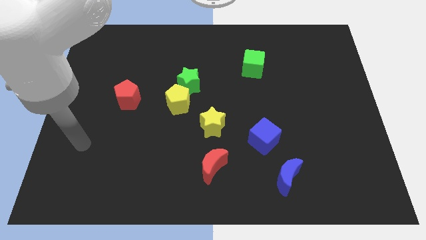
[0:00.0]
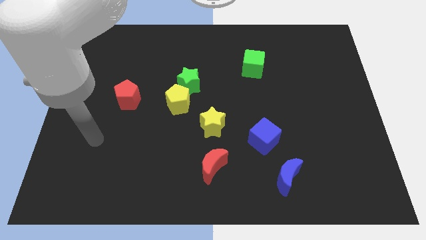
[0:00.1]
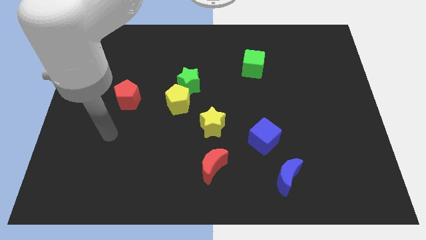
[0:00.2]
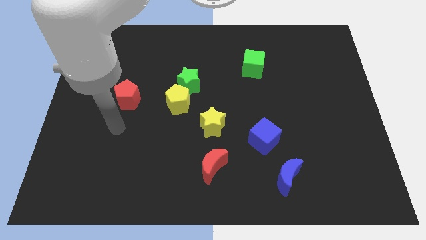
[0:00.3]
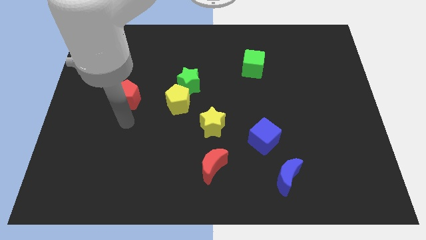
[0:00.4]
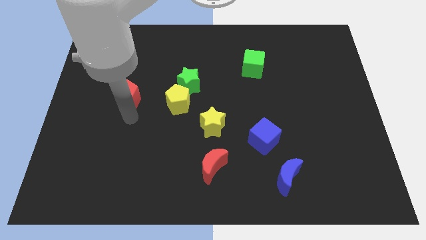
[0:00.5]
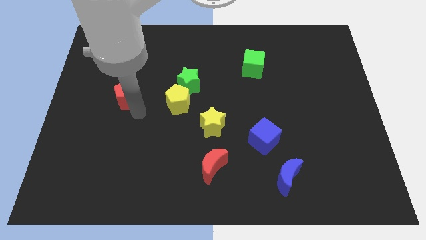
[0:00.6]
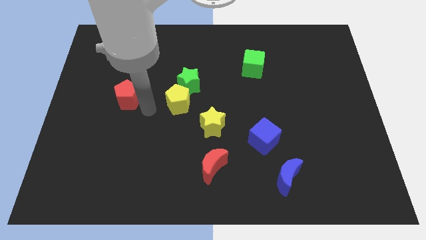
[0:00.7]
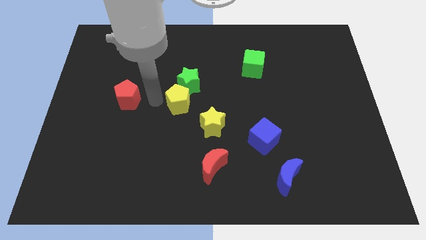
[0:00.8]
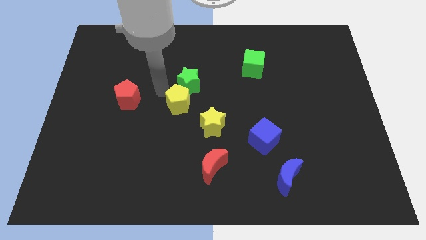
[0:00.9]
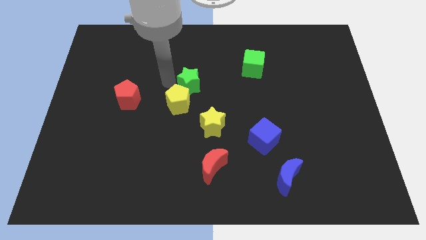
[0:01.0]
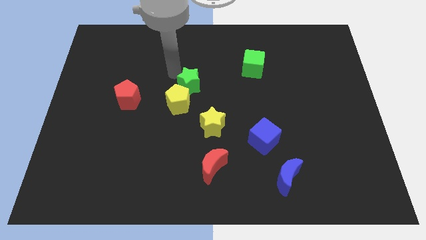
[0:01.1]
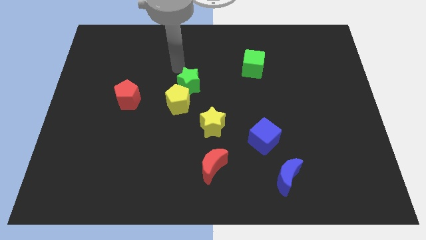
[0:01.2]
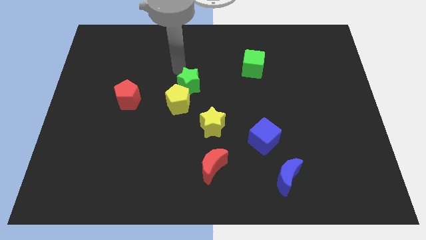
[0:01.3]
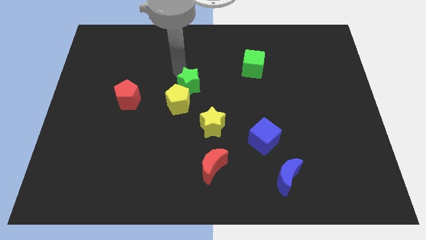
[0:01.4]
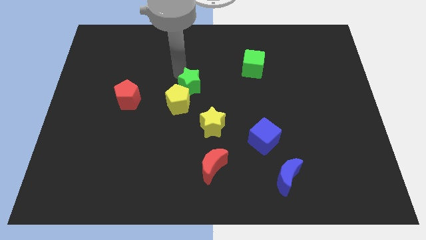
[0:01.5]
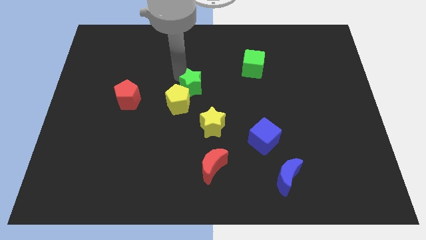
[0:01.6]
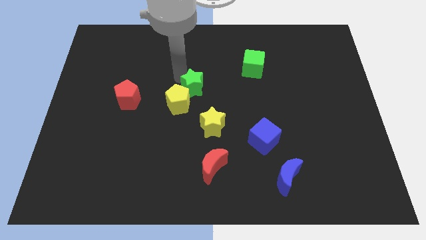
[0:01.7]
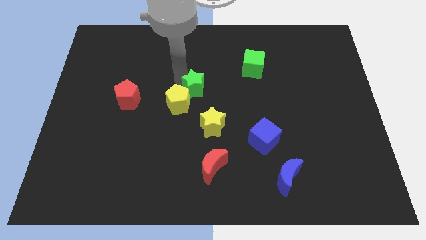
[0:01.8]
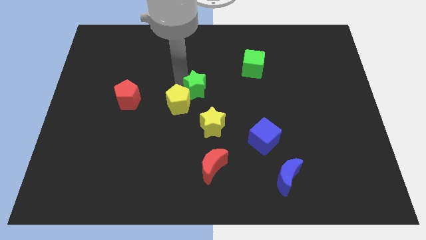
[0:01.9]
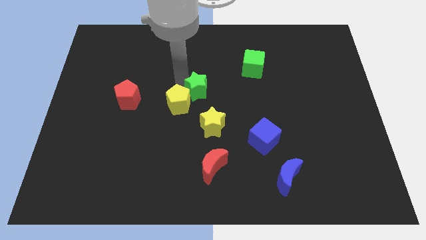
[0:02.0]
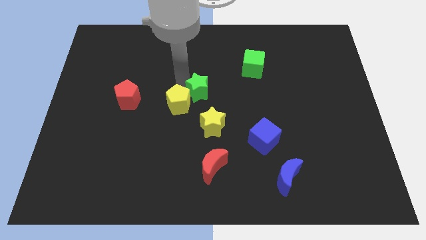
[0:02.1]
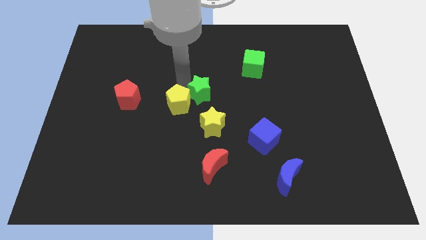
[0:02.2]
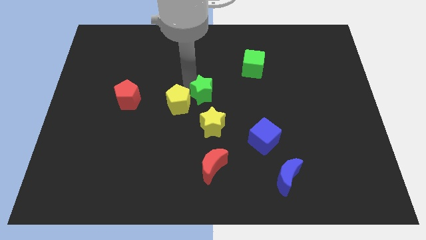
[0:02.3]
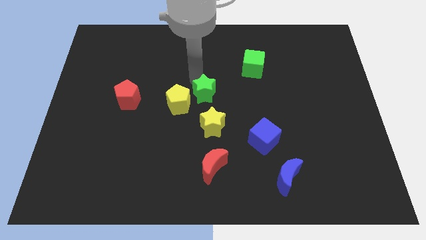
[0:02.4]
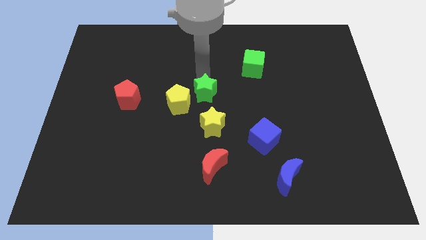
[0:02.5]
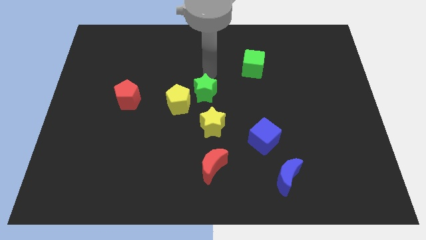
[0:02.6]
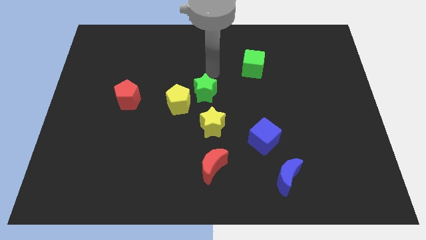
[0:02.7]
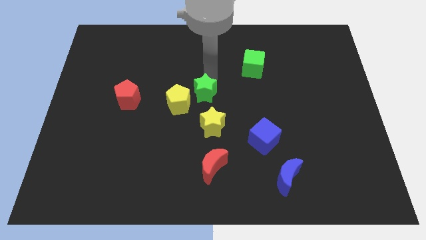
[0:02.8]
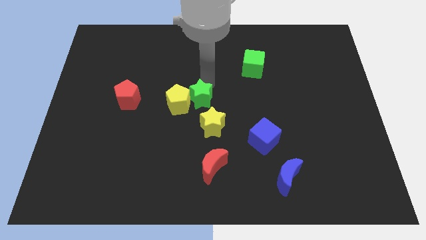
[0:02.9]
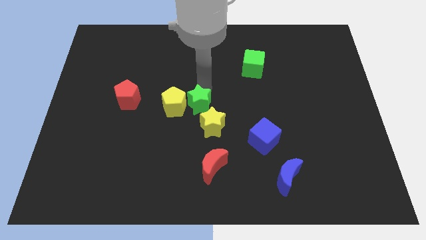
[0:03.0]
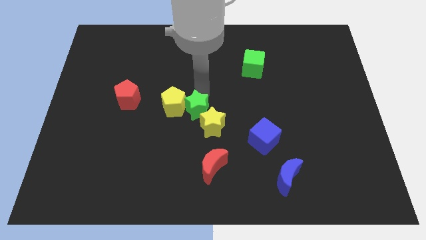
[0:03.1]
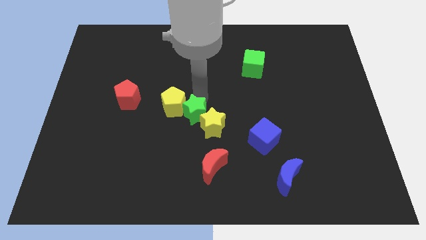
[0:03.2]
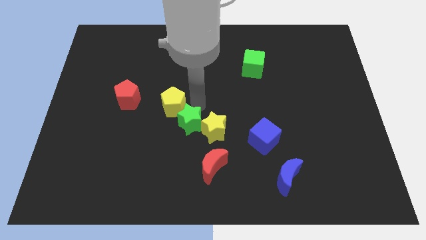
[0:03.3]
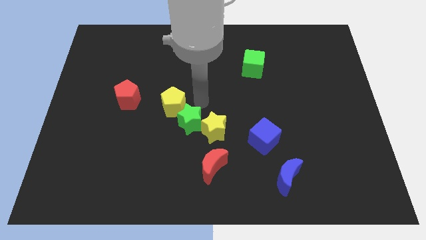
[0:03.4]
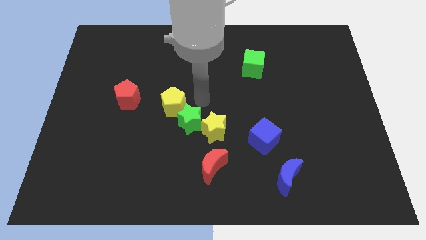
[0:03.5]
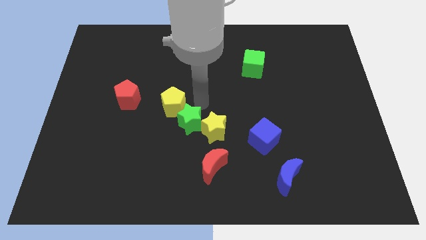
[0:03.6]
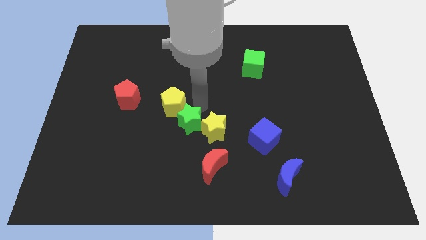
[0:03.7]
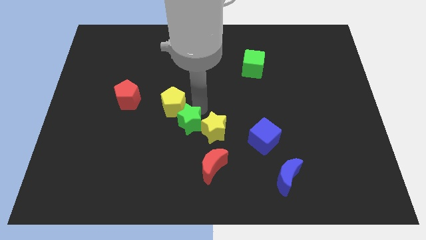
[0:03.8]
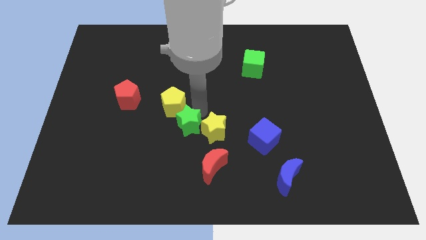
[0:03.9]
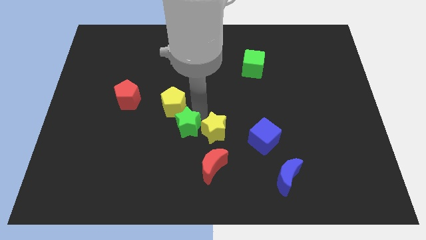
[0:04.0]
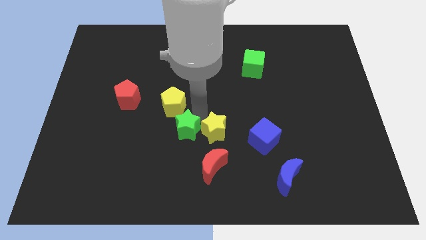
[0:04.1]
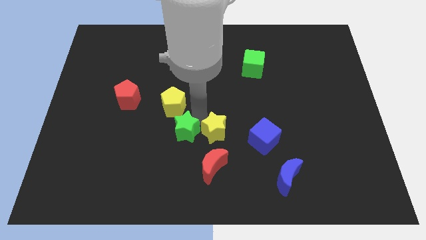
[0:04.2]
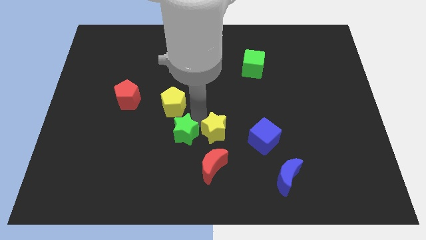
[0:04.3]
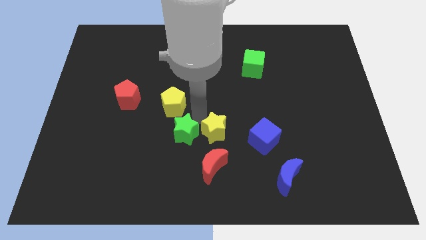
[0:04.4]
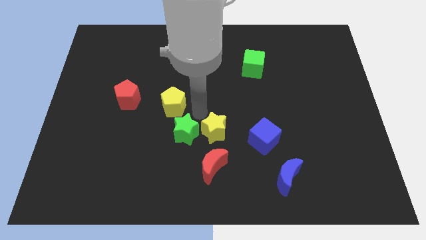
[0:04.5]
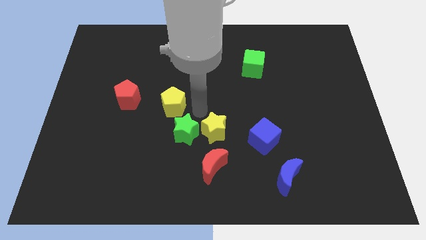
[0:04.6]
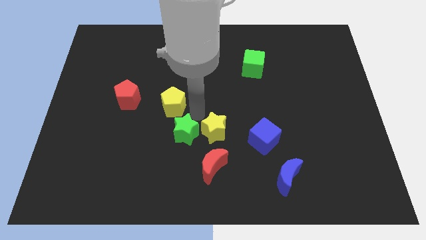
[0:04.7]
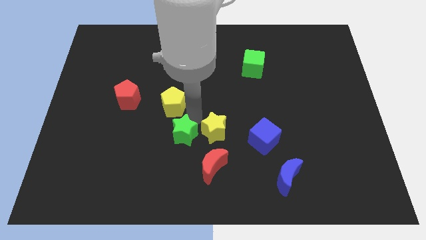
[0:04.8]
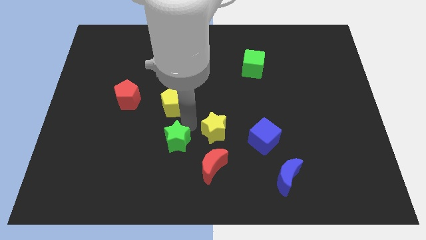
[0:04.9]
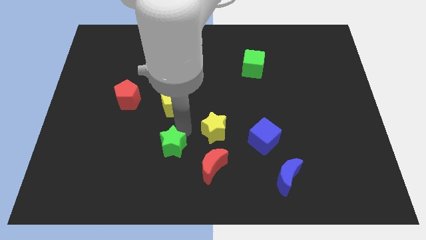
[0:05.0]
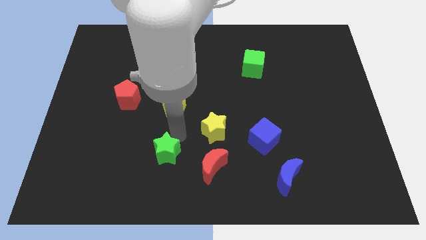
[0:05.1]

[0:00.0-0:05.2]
push the green star to the left side of the red moon

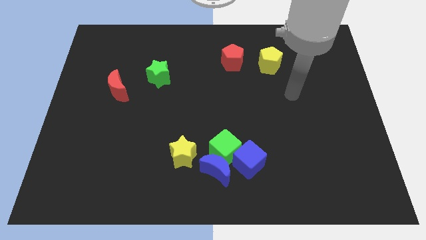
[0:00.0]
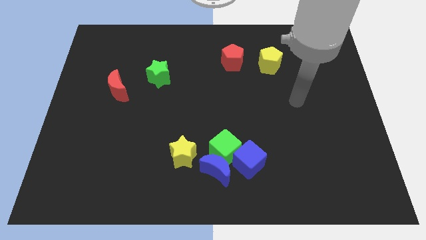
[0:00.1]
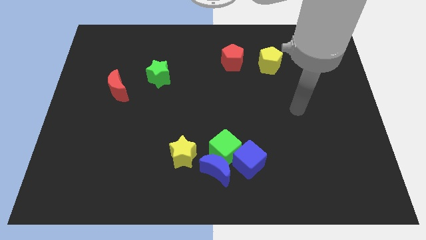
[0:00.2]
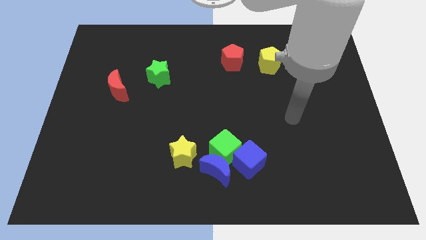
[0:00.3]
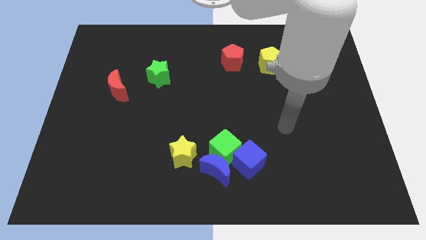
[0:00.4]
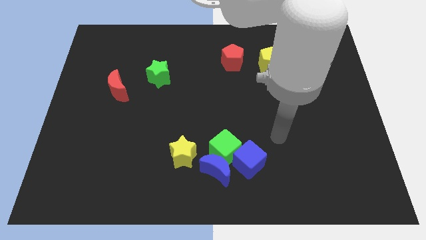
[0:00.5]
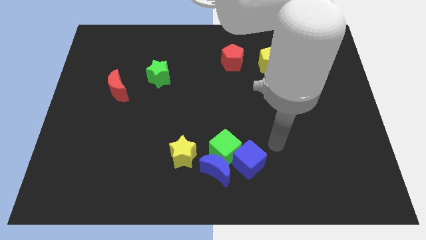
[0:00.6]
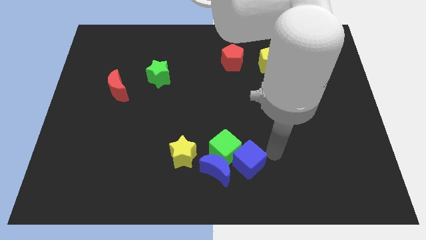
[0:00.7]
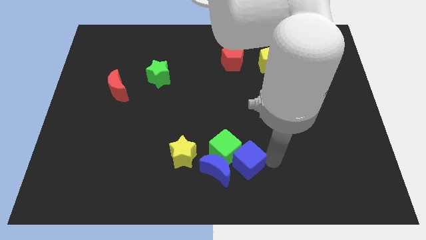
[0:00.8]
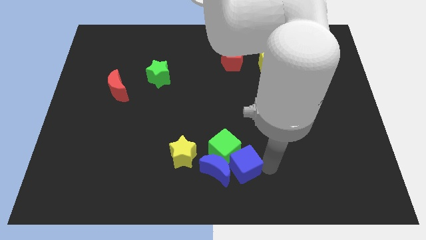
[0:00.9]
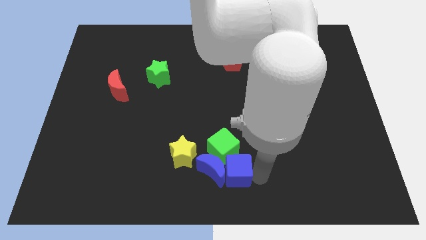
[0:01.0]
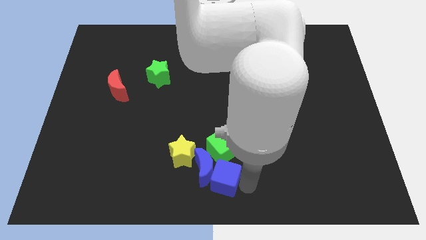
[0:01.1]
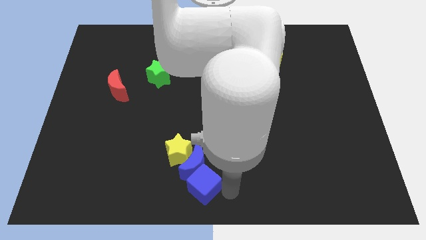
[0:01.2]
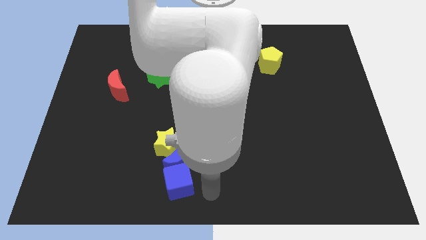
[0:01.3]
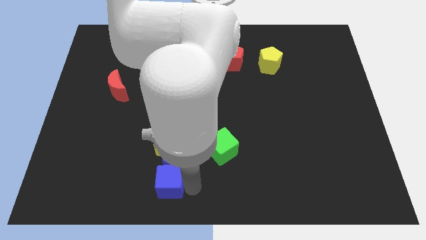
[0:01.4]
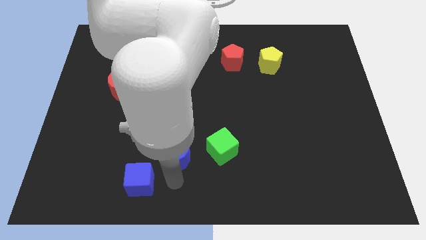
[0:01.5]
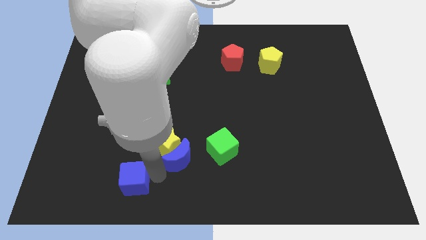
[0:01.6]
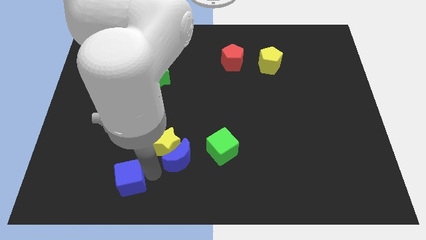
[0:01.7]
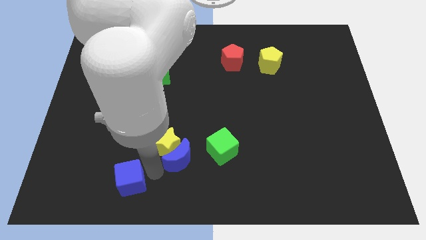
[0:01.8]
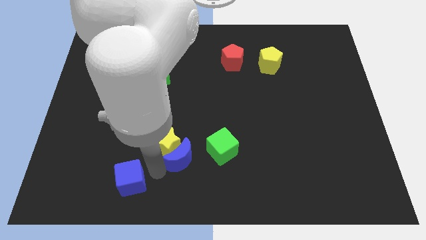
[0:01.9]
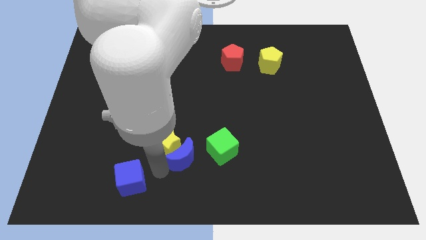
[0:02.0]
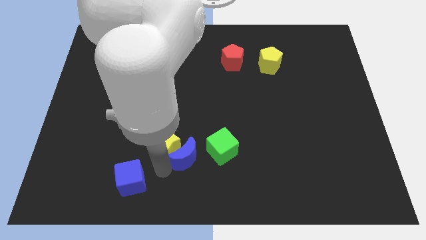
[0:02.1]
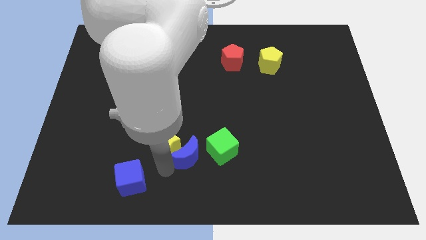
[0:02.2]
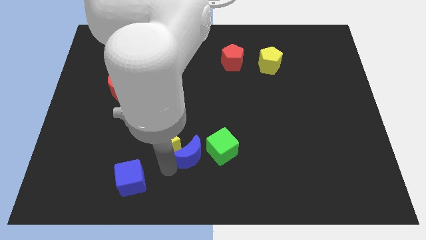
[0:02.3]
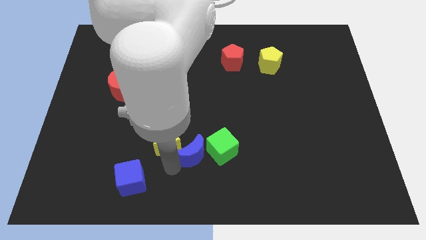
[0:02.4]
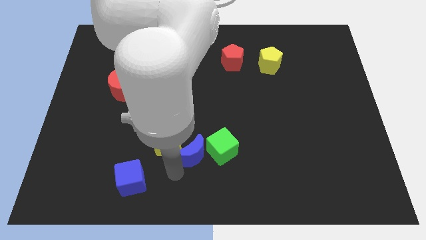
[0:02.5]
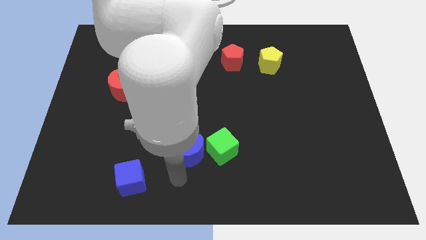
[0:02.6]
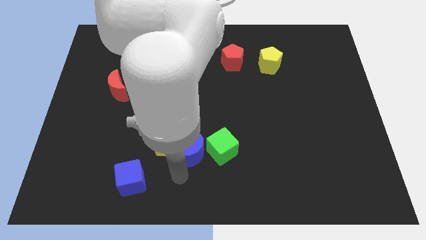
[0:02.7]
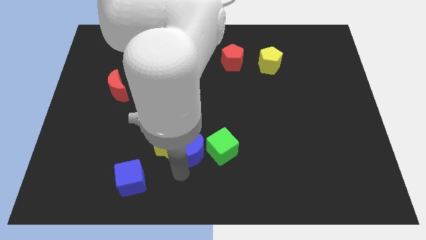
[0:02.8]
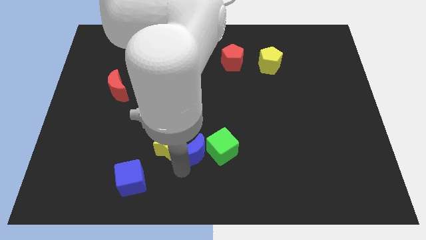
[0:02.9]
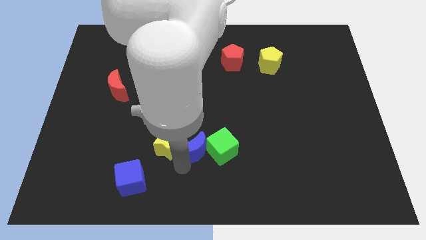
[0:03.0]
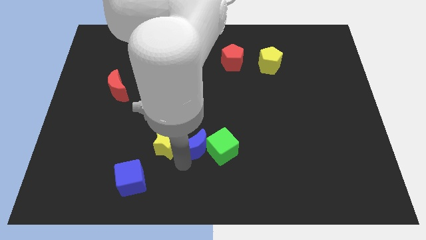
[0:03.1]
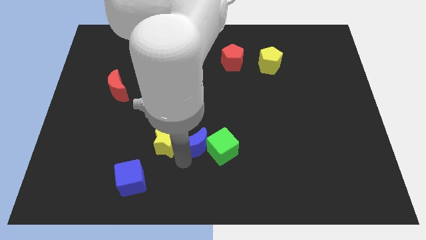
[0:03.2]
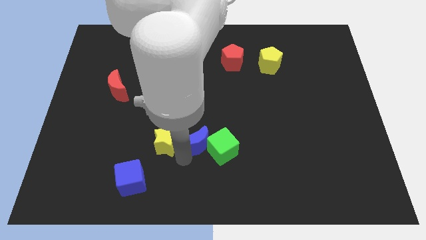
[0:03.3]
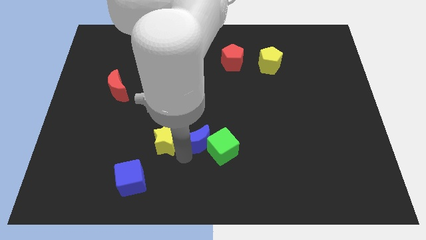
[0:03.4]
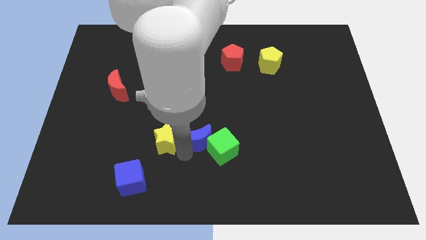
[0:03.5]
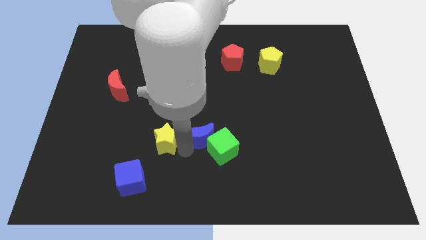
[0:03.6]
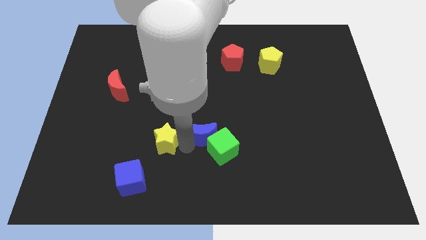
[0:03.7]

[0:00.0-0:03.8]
move the blue moon to the top of the green cube
